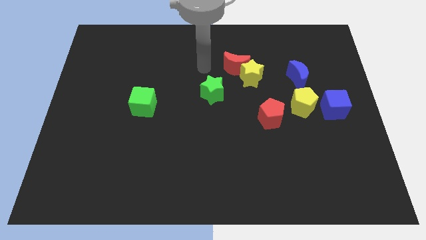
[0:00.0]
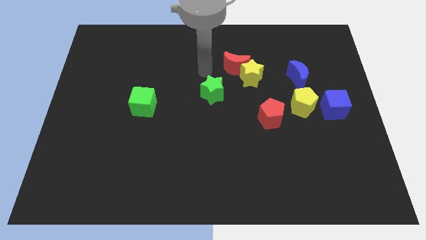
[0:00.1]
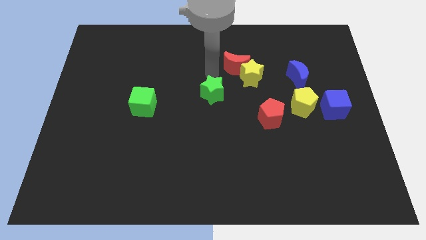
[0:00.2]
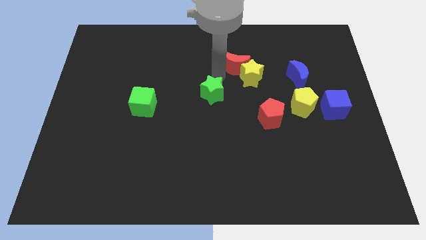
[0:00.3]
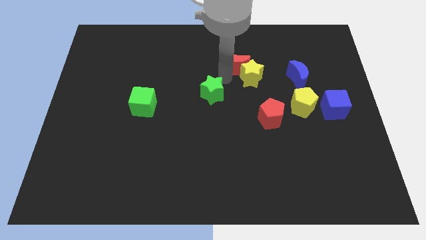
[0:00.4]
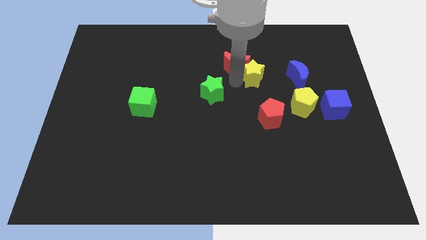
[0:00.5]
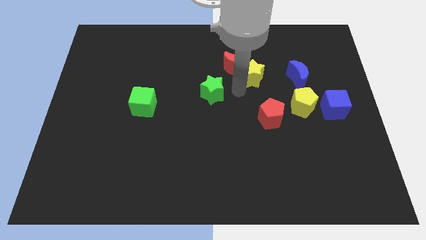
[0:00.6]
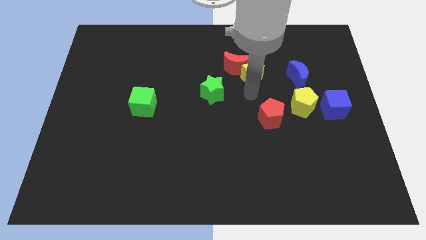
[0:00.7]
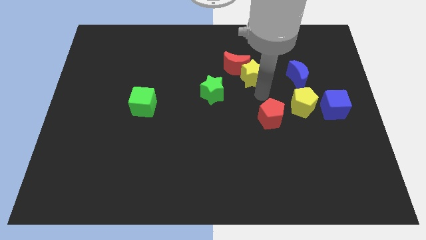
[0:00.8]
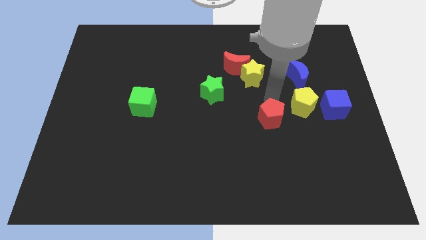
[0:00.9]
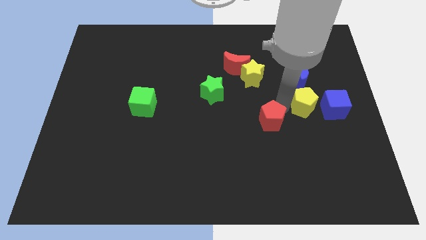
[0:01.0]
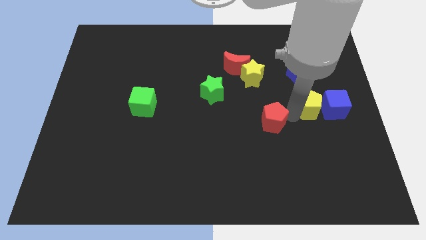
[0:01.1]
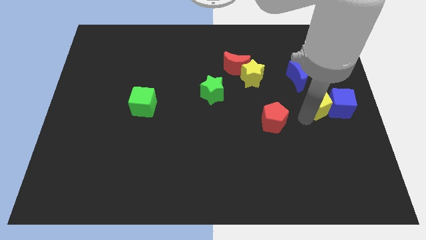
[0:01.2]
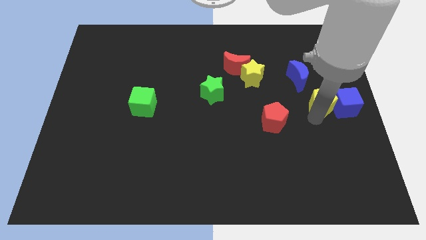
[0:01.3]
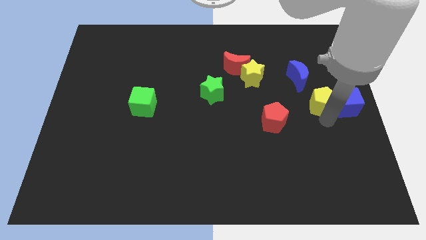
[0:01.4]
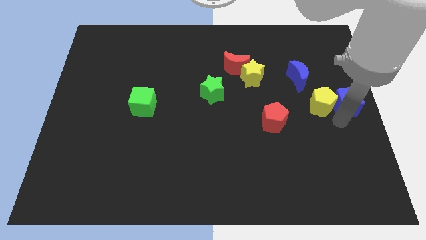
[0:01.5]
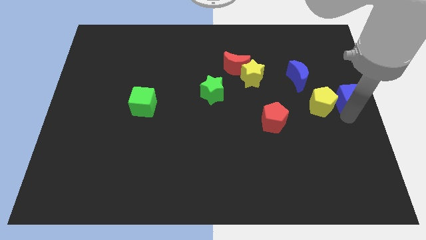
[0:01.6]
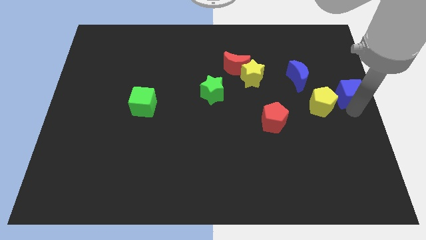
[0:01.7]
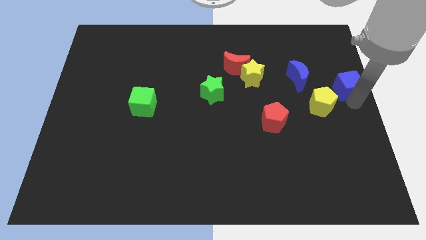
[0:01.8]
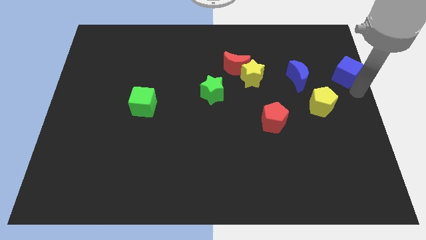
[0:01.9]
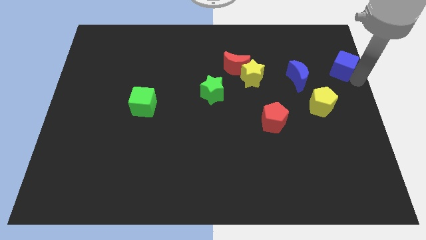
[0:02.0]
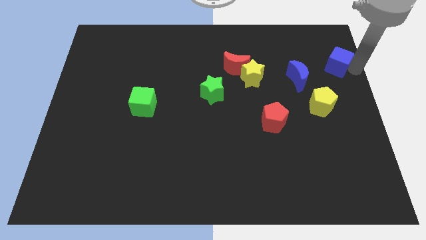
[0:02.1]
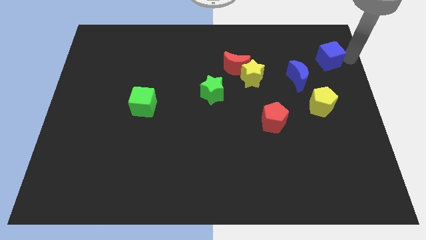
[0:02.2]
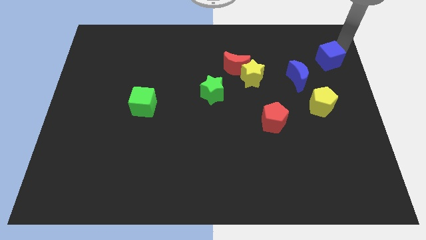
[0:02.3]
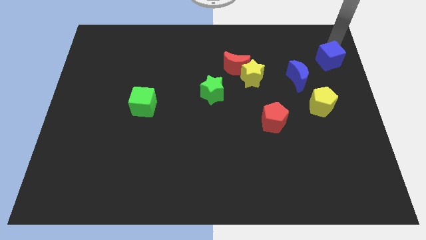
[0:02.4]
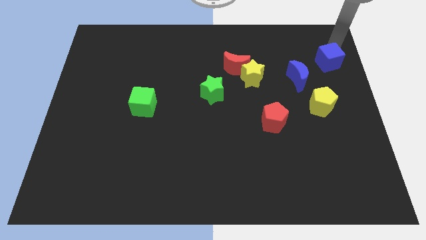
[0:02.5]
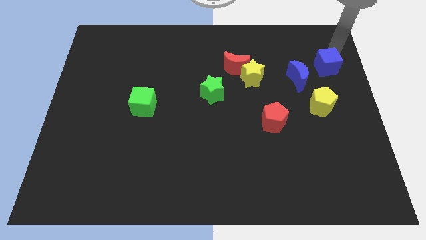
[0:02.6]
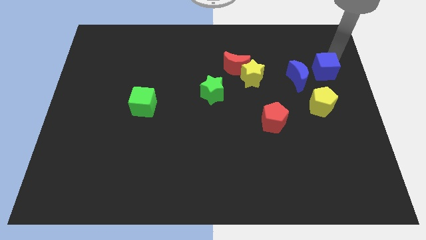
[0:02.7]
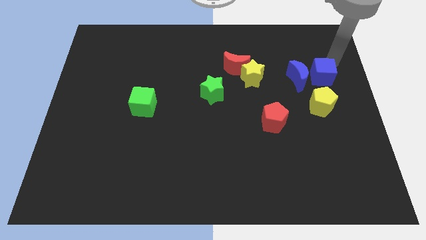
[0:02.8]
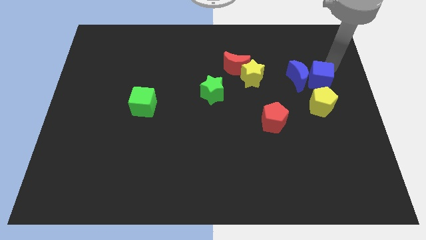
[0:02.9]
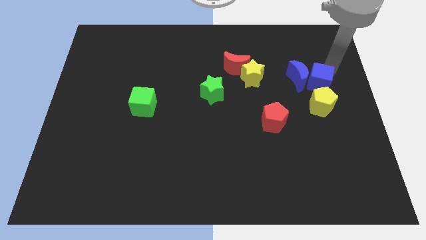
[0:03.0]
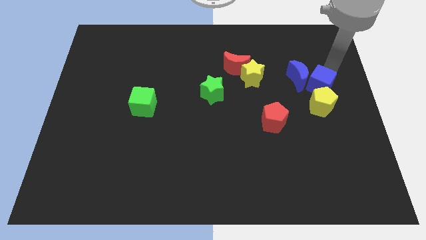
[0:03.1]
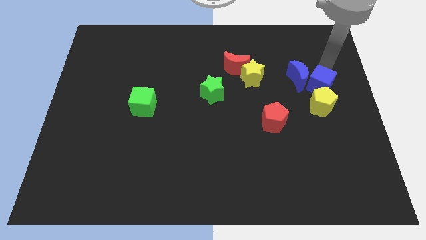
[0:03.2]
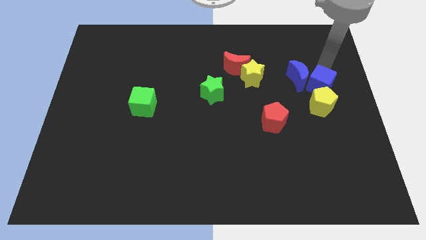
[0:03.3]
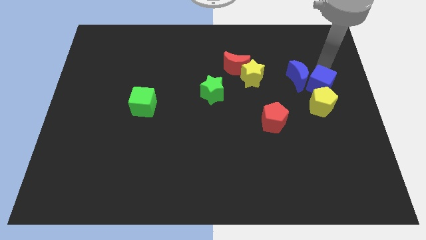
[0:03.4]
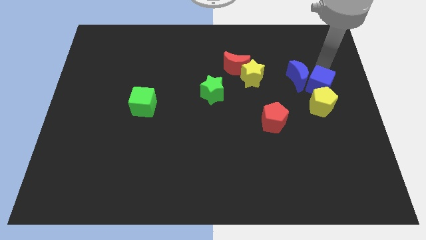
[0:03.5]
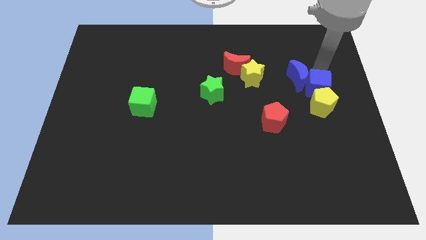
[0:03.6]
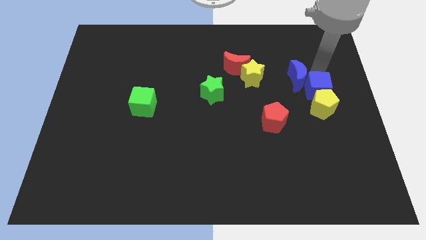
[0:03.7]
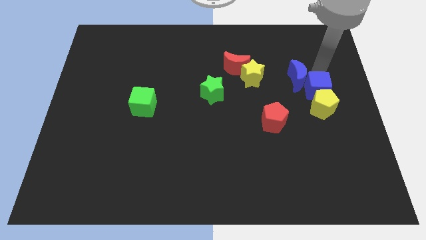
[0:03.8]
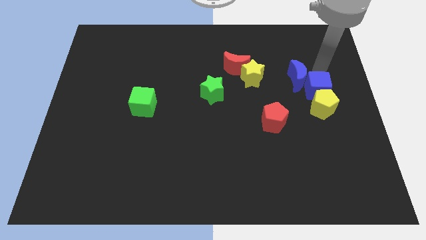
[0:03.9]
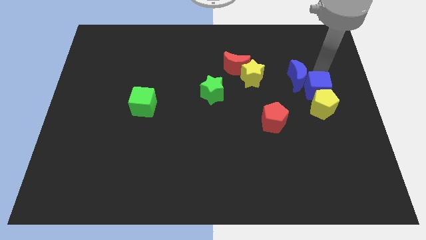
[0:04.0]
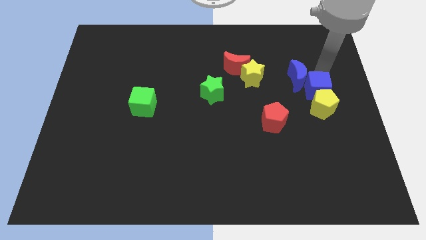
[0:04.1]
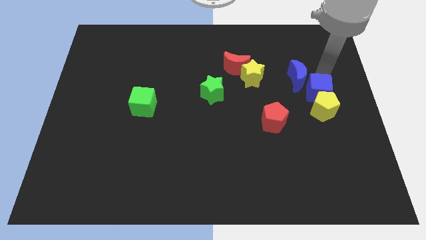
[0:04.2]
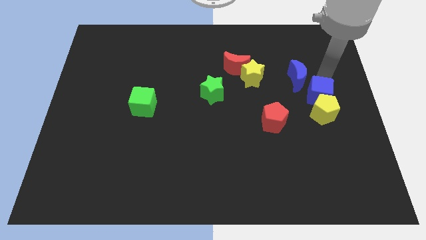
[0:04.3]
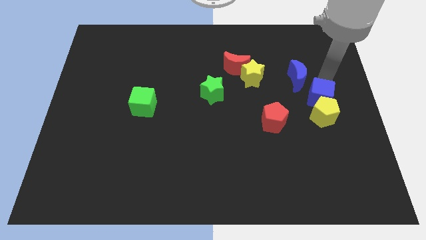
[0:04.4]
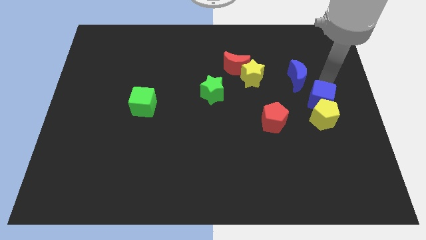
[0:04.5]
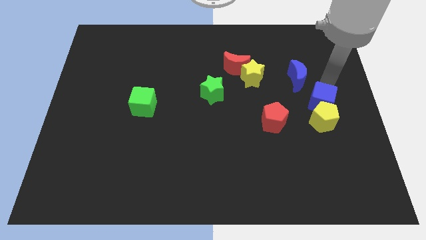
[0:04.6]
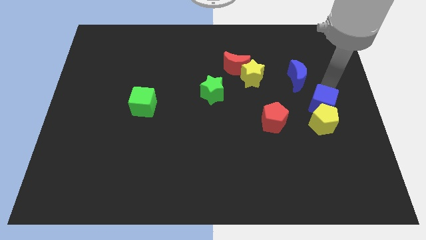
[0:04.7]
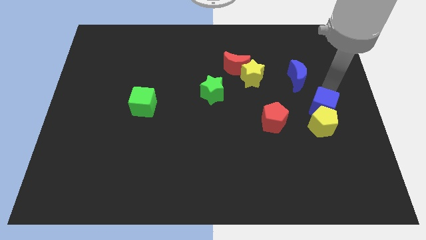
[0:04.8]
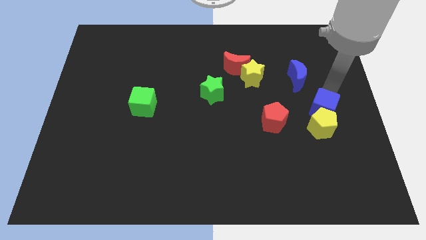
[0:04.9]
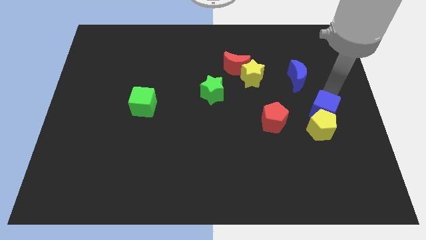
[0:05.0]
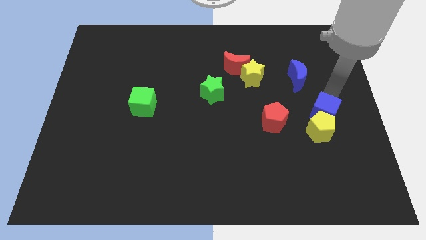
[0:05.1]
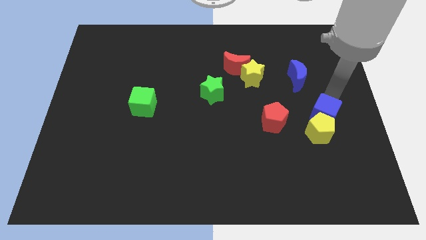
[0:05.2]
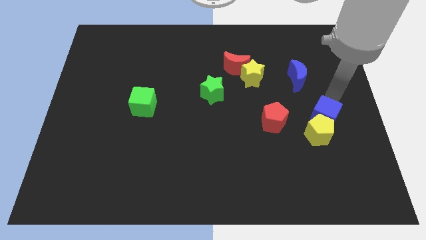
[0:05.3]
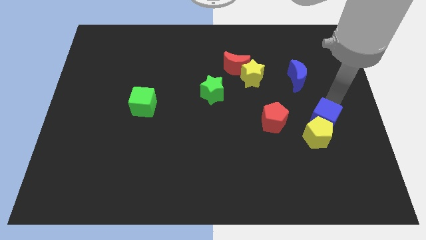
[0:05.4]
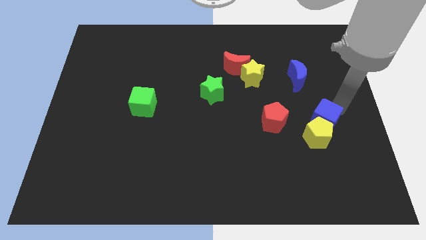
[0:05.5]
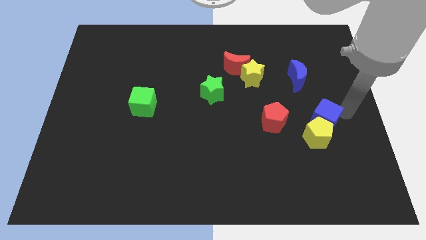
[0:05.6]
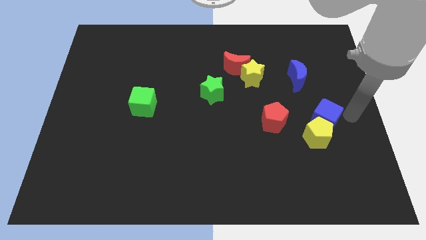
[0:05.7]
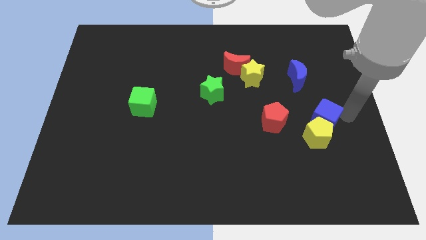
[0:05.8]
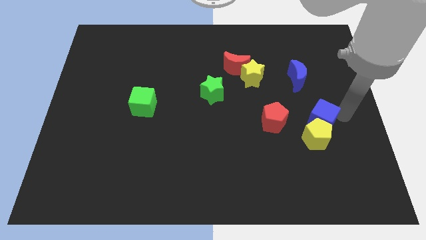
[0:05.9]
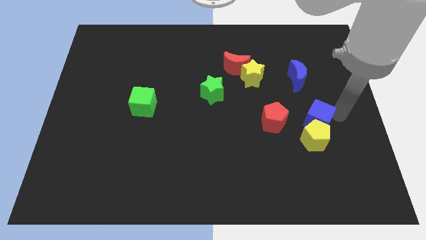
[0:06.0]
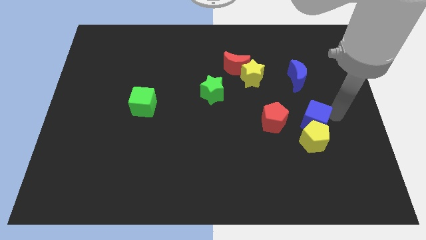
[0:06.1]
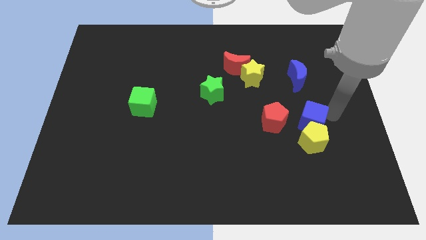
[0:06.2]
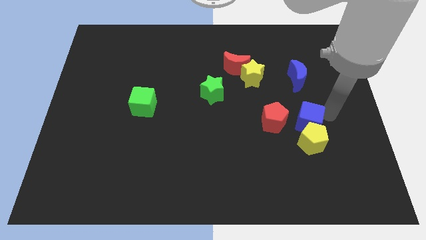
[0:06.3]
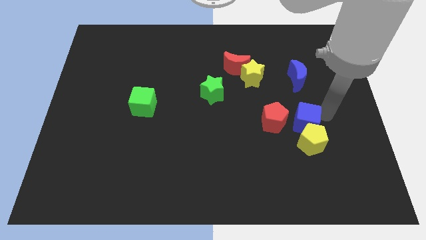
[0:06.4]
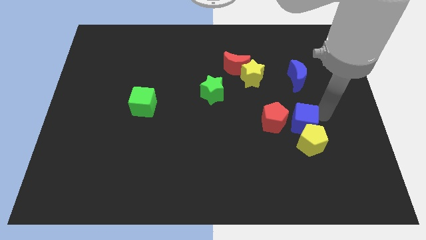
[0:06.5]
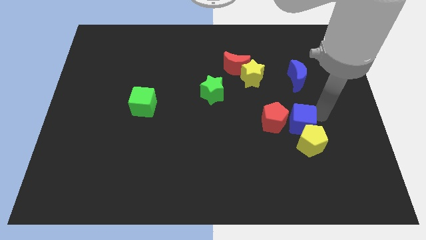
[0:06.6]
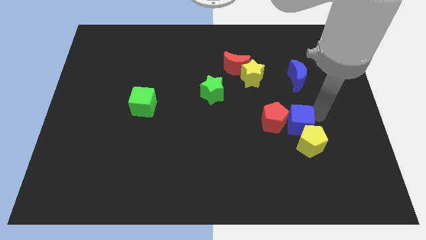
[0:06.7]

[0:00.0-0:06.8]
slide the blue cube close to the red pentagon

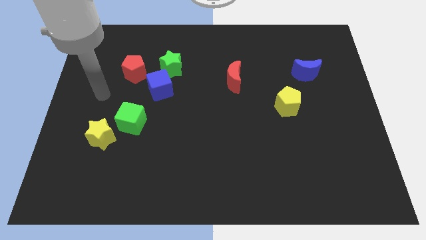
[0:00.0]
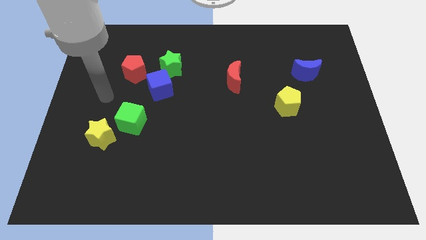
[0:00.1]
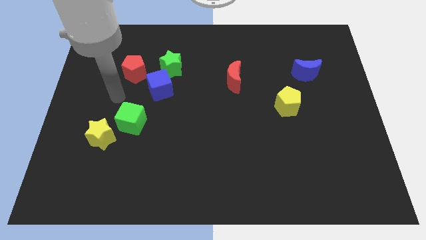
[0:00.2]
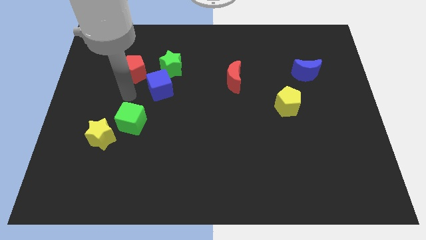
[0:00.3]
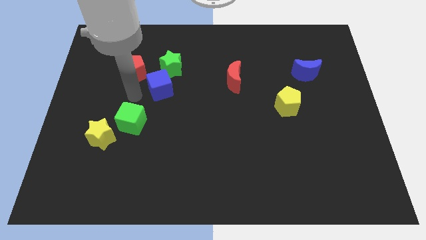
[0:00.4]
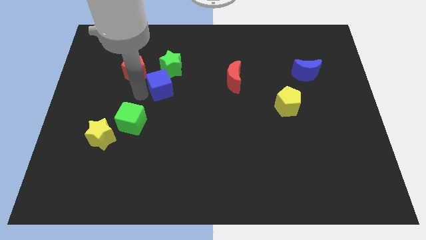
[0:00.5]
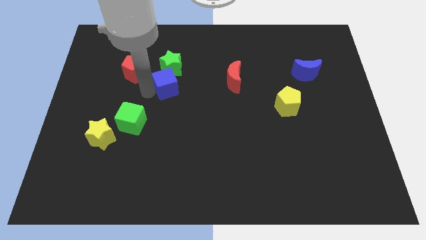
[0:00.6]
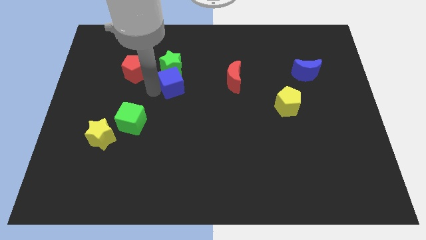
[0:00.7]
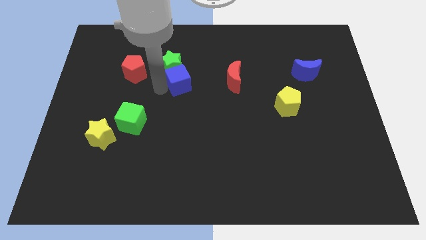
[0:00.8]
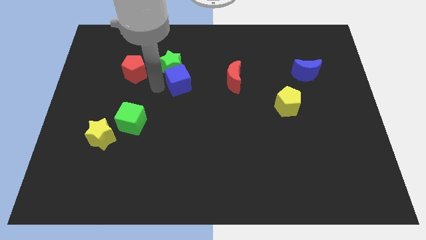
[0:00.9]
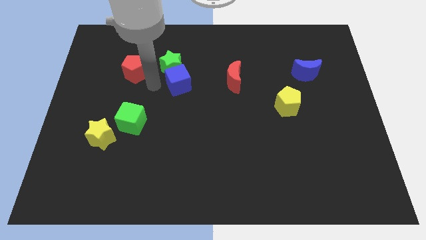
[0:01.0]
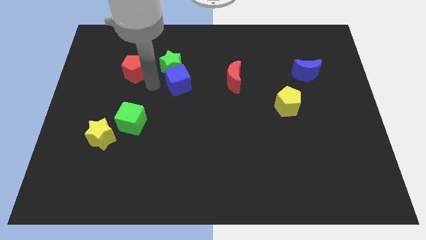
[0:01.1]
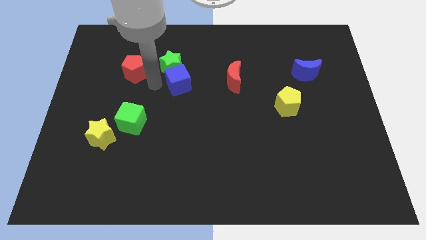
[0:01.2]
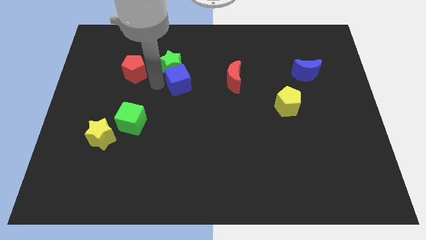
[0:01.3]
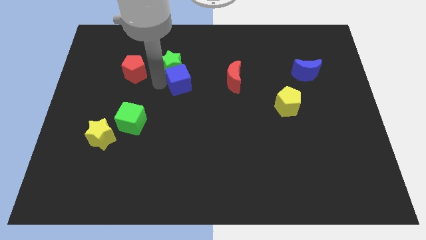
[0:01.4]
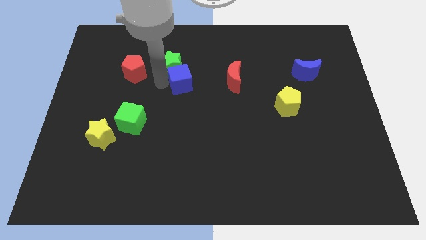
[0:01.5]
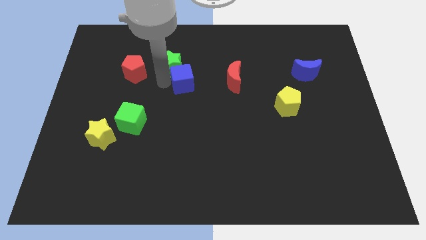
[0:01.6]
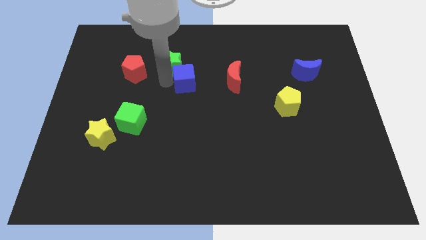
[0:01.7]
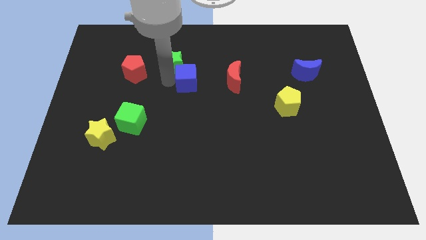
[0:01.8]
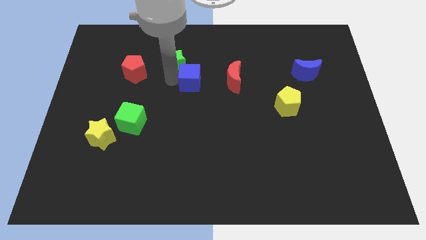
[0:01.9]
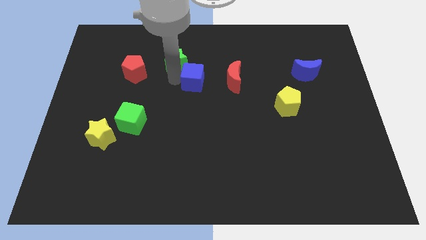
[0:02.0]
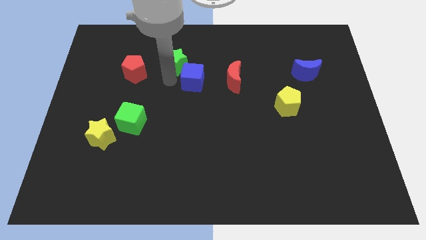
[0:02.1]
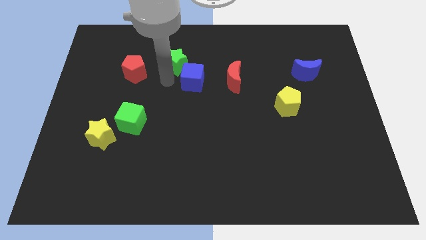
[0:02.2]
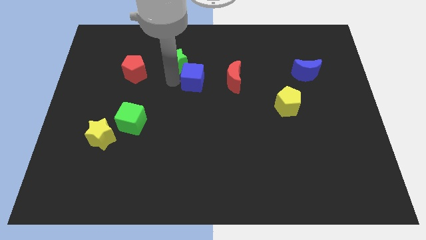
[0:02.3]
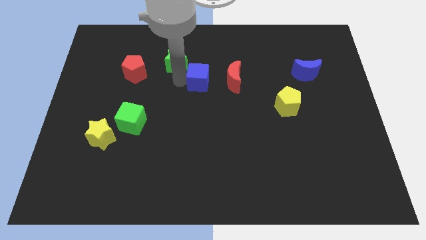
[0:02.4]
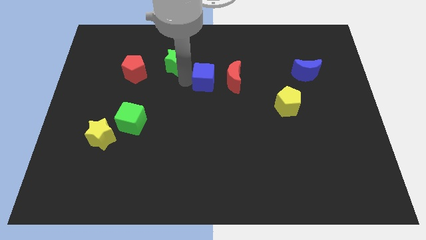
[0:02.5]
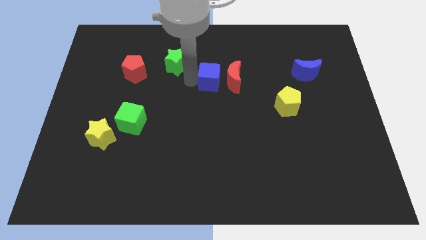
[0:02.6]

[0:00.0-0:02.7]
put the blue cube to the red moon
